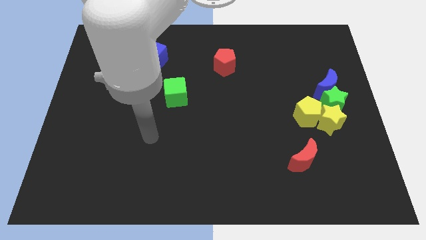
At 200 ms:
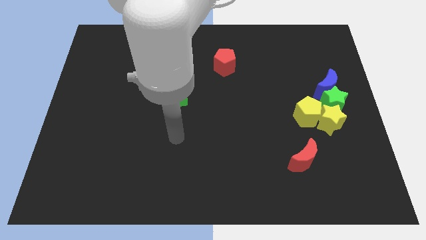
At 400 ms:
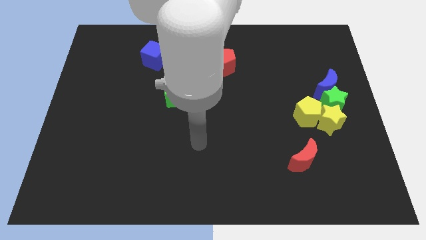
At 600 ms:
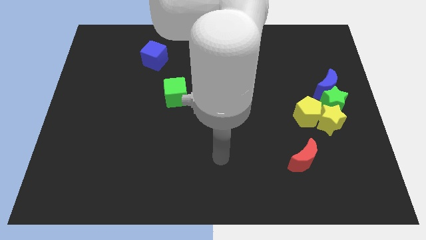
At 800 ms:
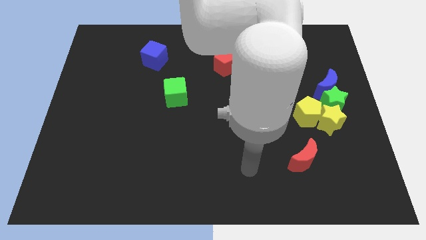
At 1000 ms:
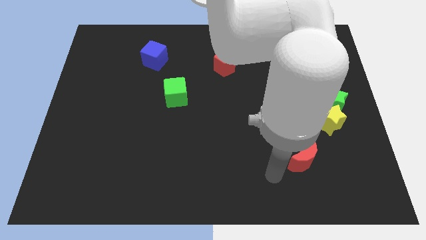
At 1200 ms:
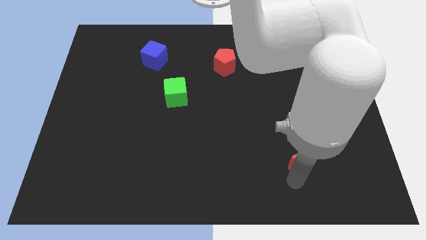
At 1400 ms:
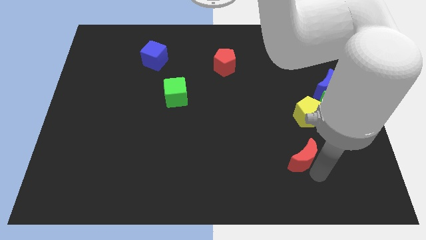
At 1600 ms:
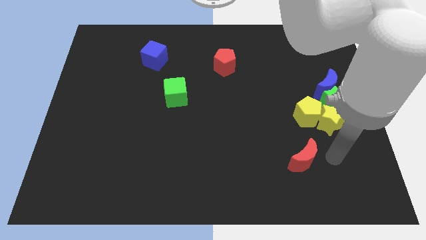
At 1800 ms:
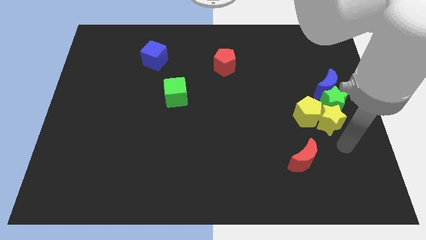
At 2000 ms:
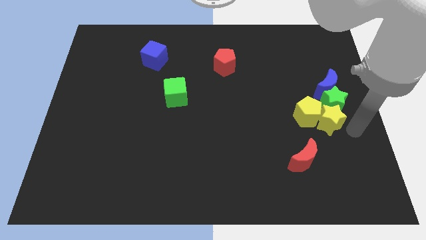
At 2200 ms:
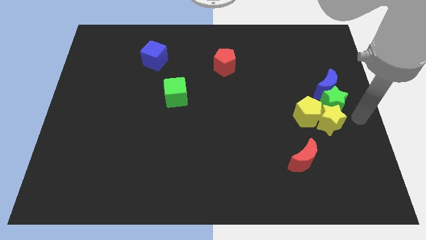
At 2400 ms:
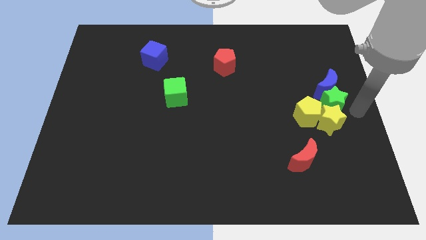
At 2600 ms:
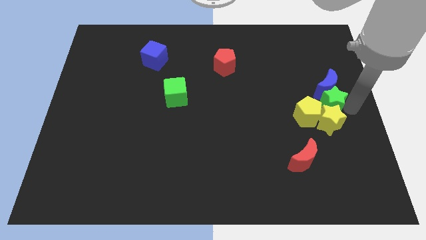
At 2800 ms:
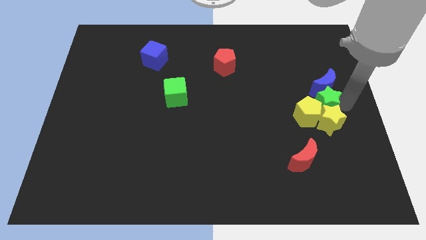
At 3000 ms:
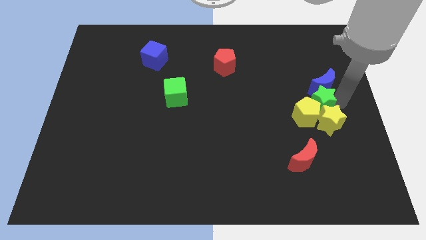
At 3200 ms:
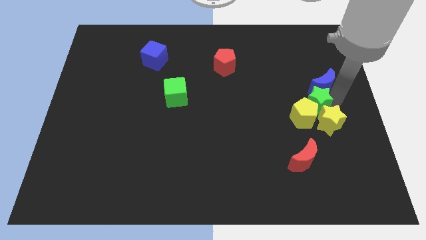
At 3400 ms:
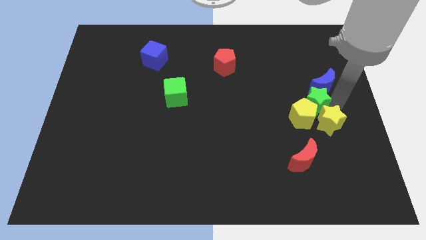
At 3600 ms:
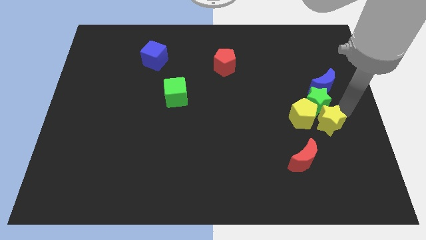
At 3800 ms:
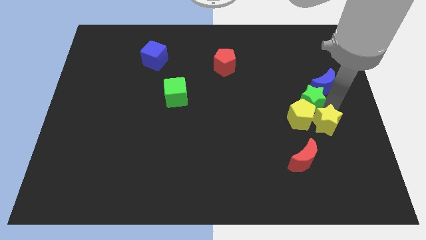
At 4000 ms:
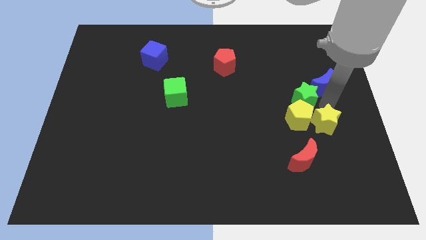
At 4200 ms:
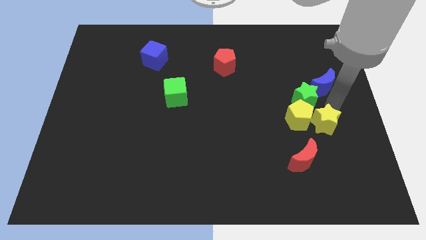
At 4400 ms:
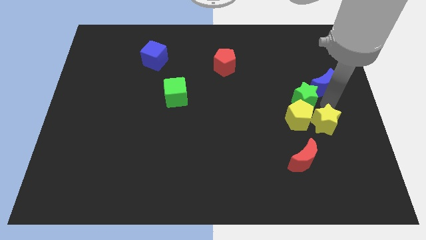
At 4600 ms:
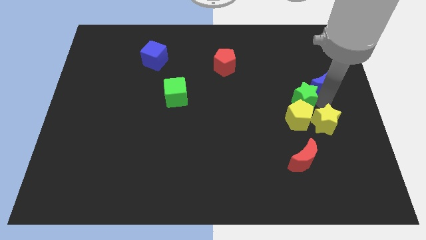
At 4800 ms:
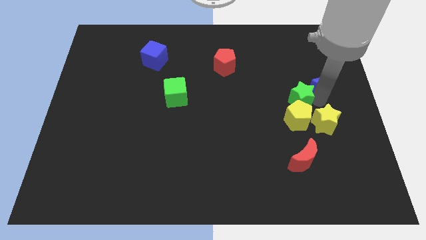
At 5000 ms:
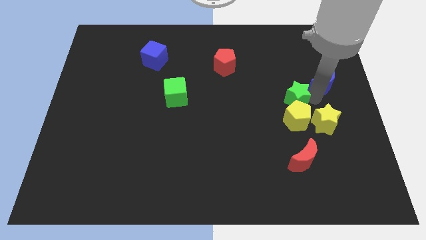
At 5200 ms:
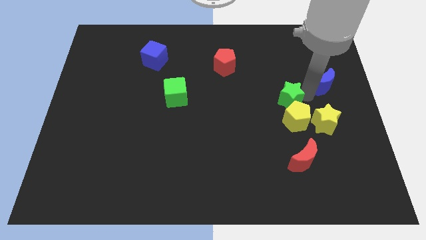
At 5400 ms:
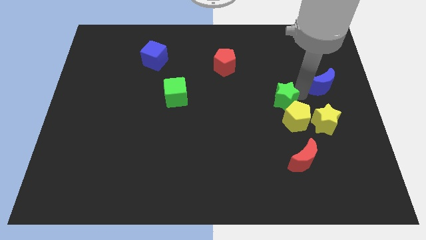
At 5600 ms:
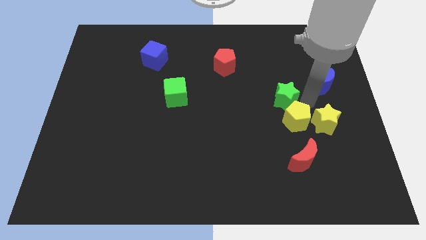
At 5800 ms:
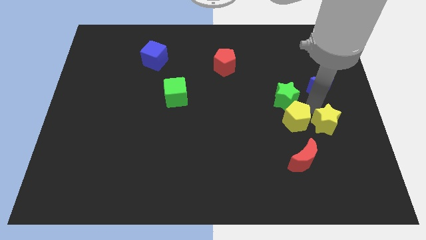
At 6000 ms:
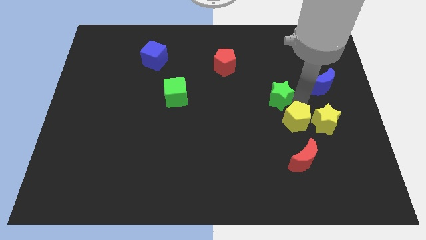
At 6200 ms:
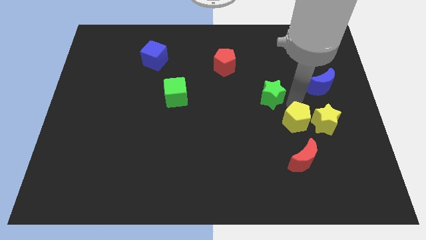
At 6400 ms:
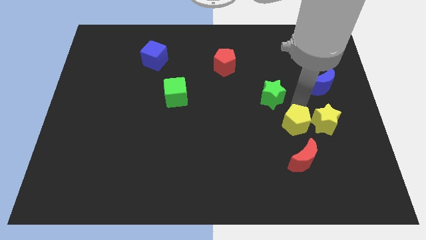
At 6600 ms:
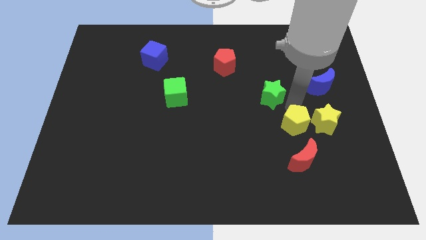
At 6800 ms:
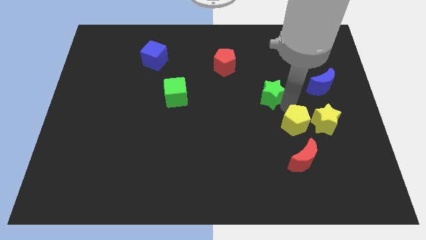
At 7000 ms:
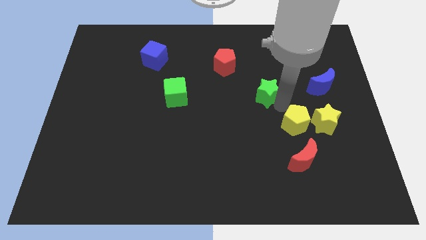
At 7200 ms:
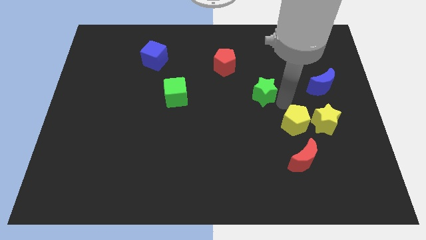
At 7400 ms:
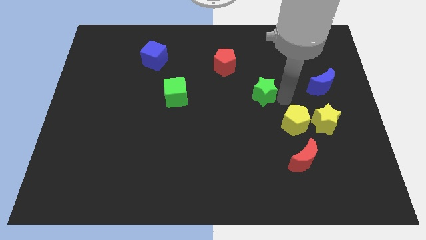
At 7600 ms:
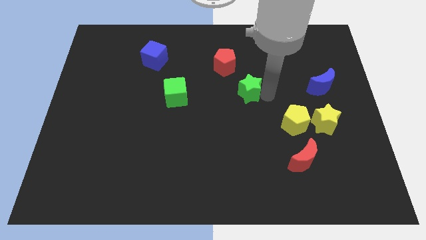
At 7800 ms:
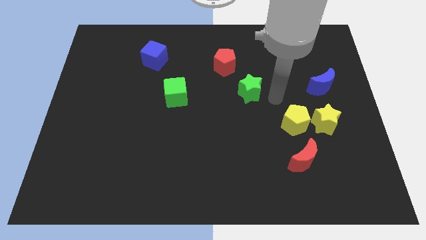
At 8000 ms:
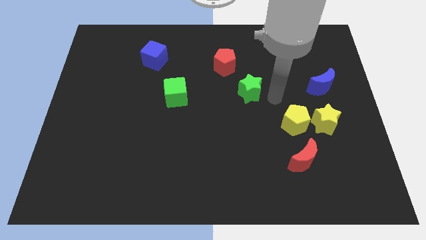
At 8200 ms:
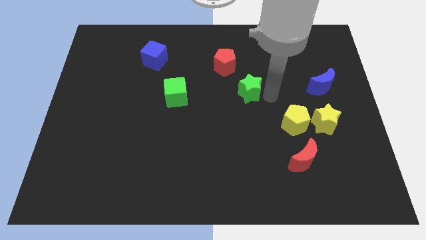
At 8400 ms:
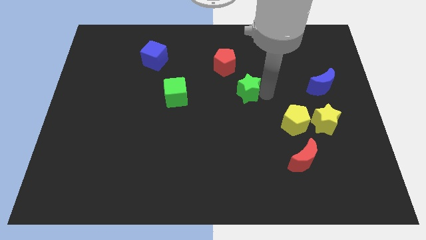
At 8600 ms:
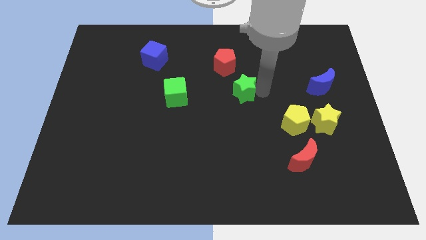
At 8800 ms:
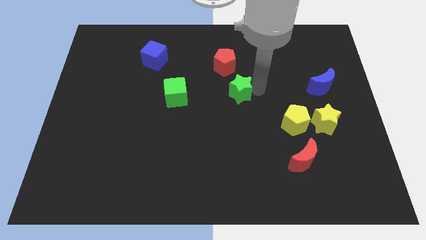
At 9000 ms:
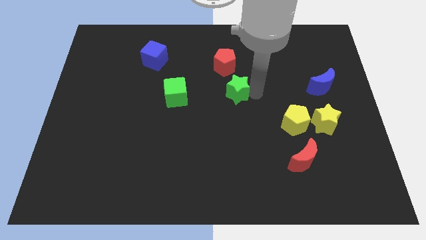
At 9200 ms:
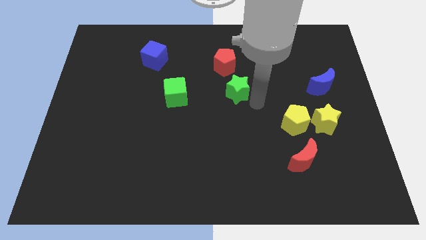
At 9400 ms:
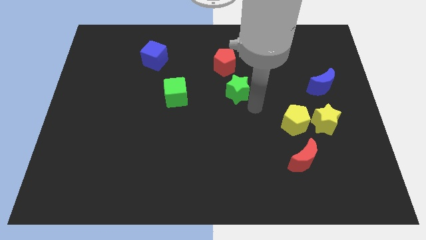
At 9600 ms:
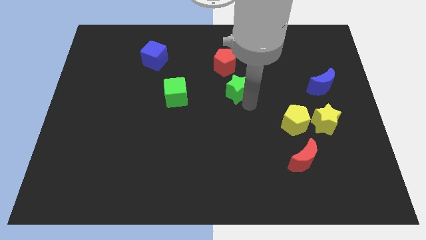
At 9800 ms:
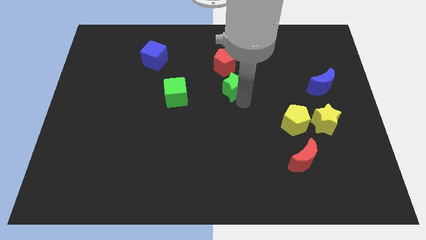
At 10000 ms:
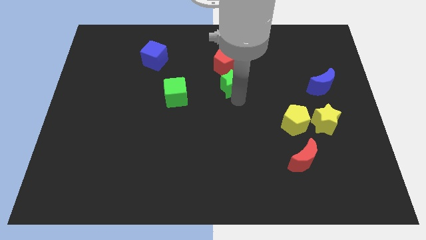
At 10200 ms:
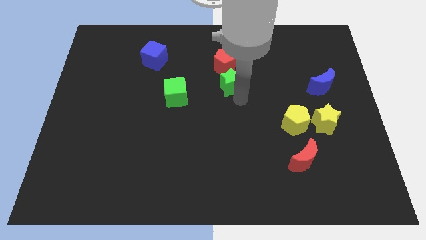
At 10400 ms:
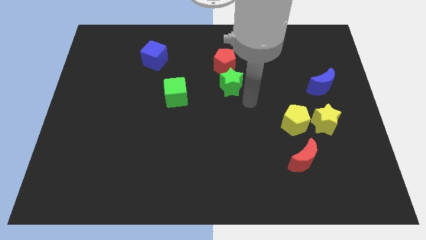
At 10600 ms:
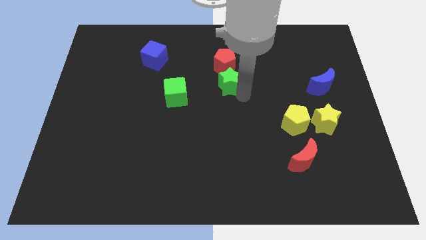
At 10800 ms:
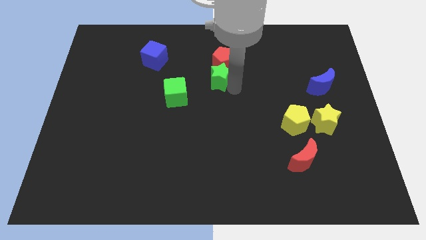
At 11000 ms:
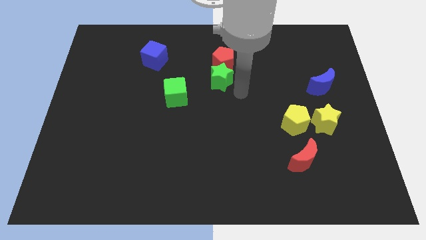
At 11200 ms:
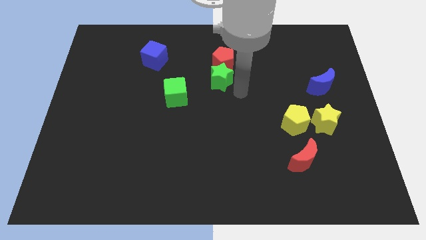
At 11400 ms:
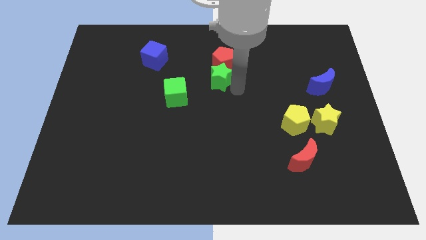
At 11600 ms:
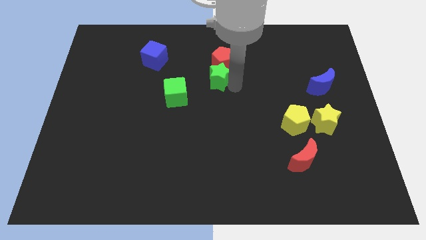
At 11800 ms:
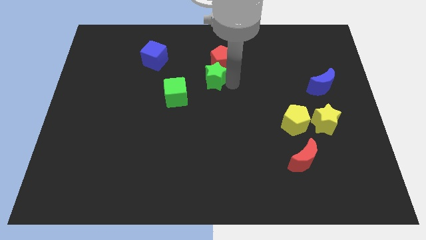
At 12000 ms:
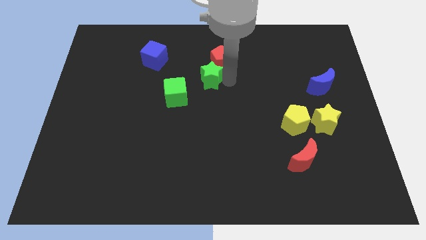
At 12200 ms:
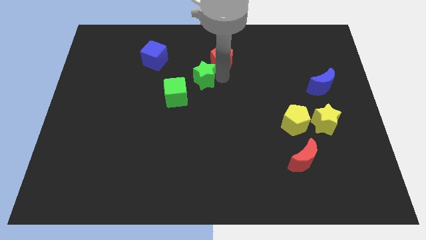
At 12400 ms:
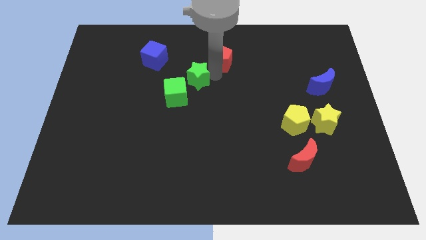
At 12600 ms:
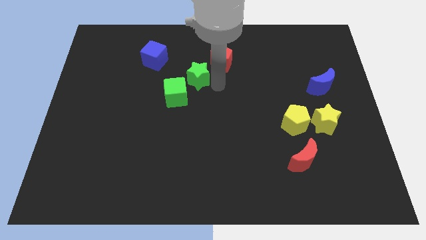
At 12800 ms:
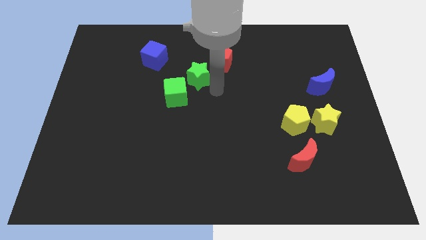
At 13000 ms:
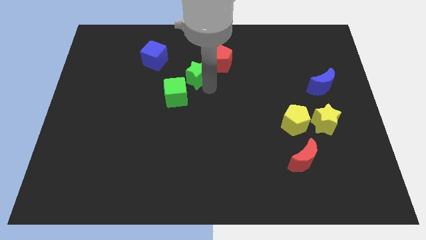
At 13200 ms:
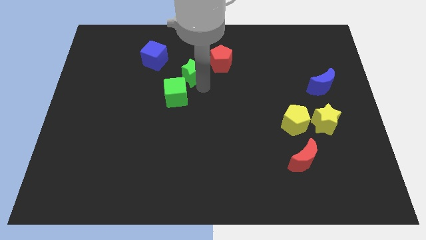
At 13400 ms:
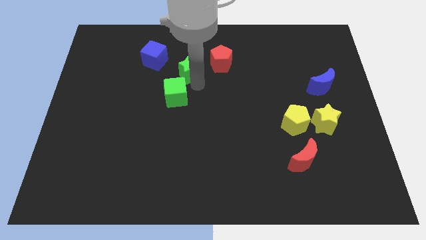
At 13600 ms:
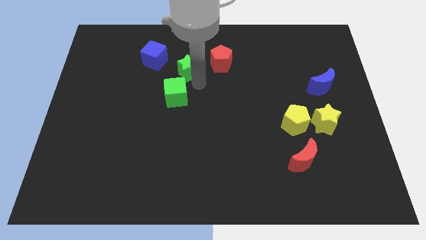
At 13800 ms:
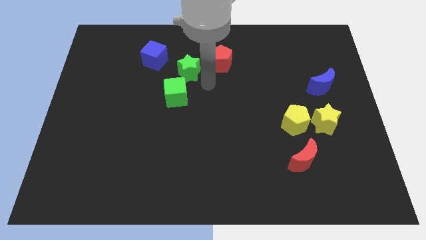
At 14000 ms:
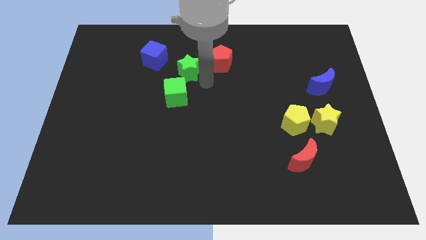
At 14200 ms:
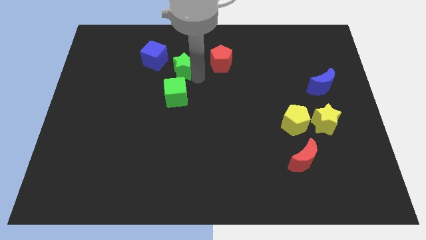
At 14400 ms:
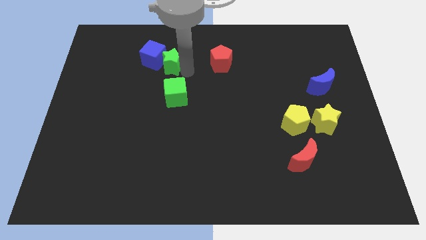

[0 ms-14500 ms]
push the green star towards the blue cube
